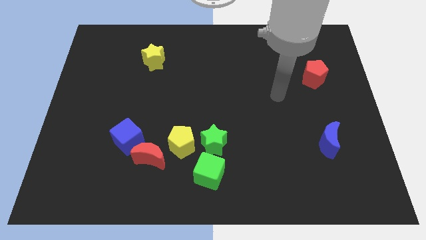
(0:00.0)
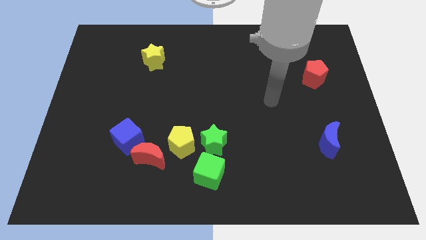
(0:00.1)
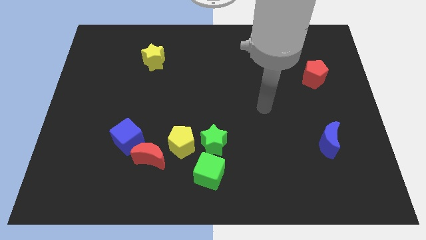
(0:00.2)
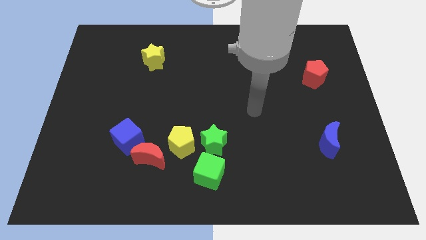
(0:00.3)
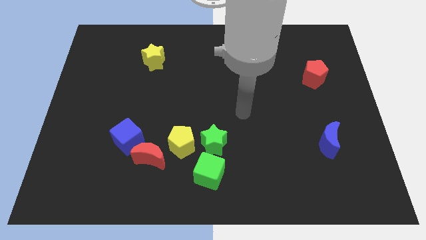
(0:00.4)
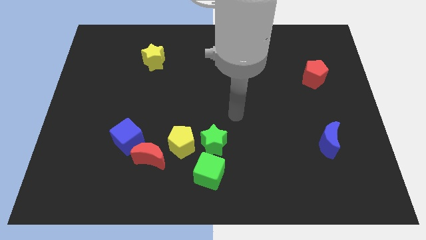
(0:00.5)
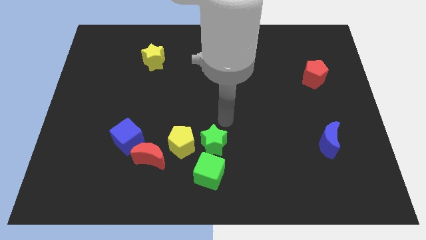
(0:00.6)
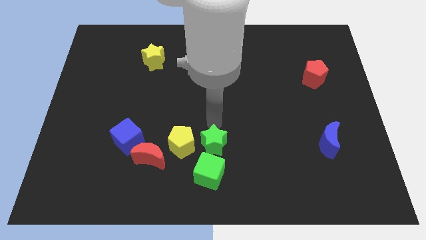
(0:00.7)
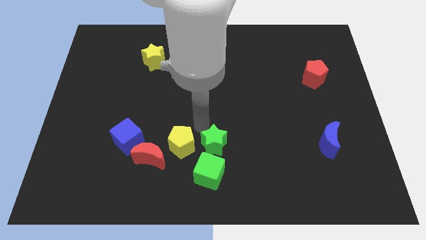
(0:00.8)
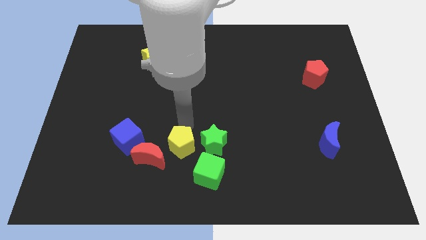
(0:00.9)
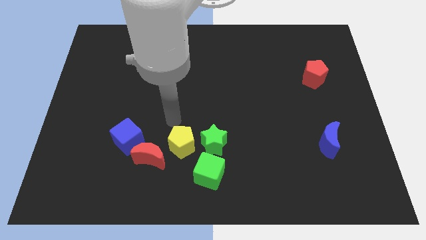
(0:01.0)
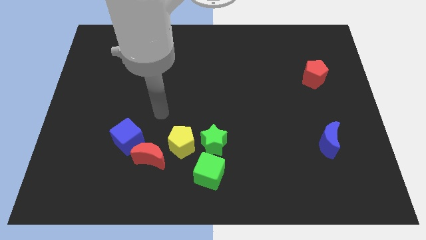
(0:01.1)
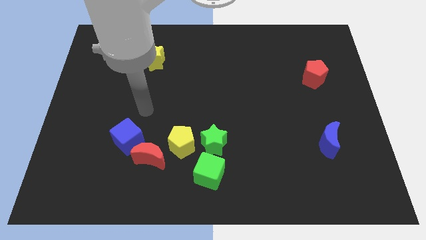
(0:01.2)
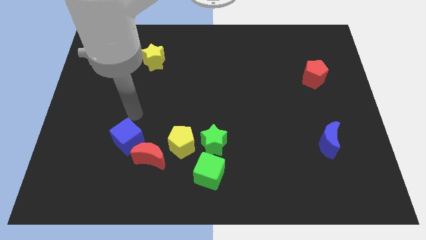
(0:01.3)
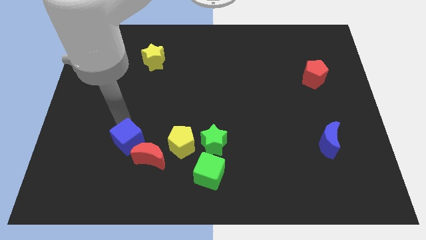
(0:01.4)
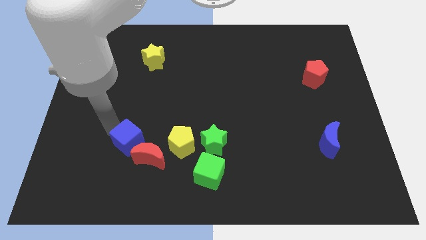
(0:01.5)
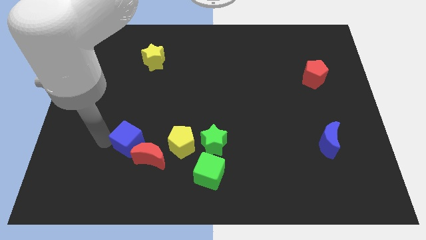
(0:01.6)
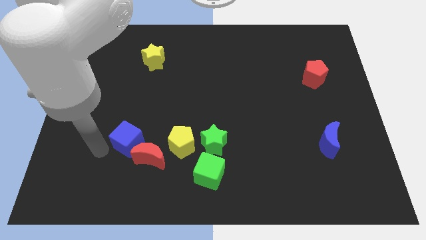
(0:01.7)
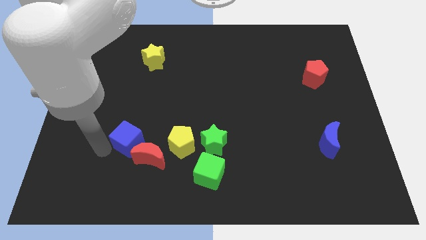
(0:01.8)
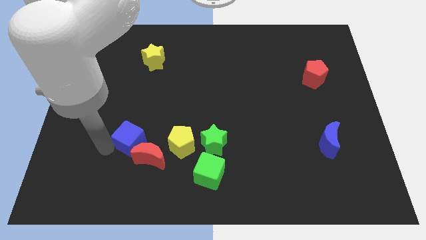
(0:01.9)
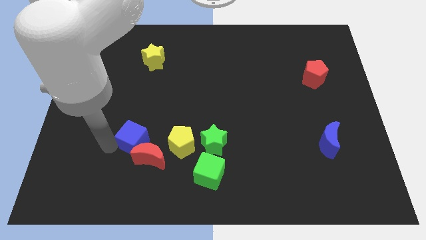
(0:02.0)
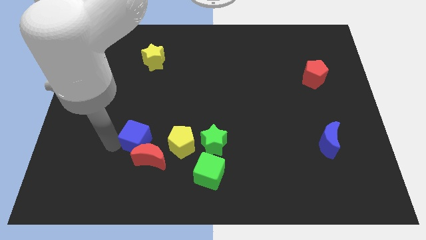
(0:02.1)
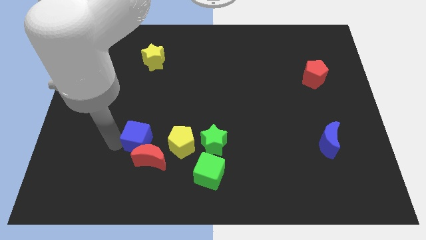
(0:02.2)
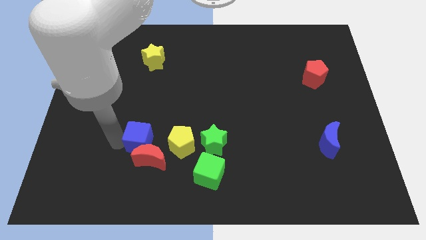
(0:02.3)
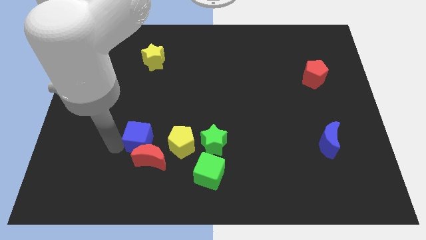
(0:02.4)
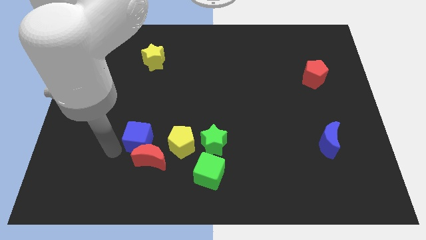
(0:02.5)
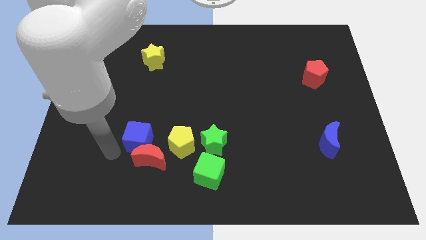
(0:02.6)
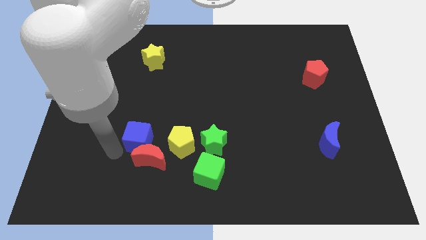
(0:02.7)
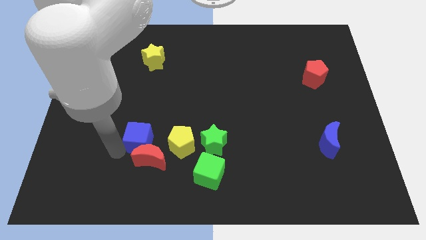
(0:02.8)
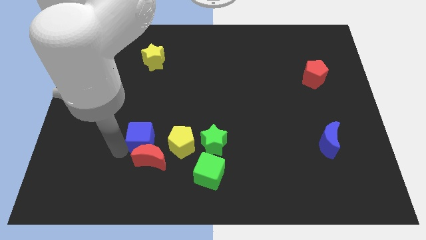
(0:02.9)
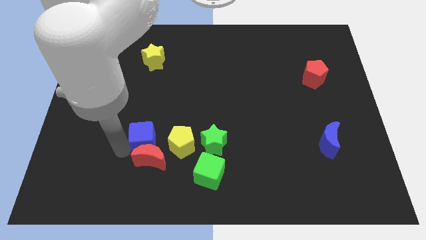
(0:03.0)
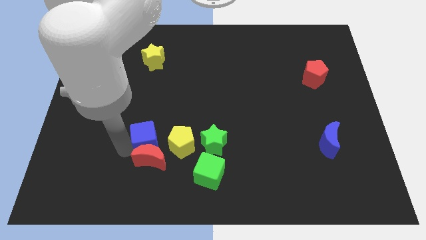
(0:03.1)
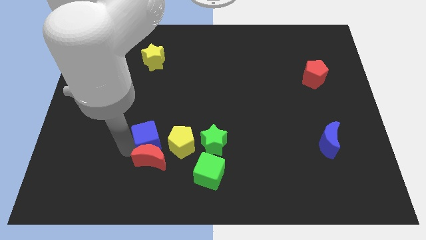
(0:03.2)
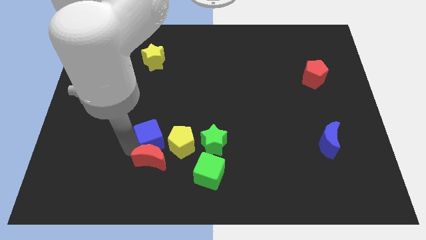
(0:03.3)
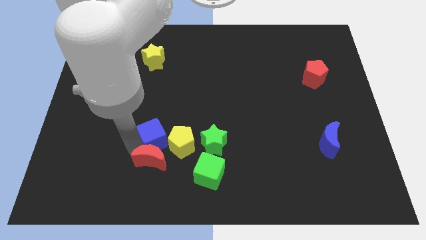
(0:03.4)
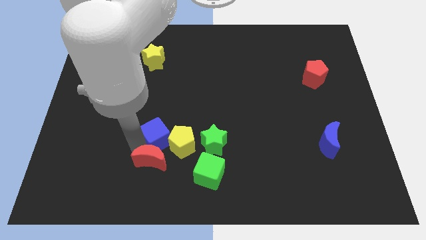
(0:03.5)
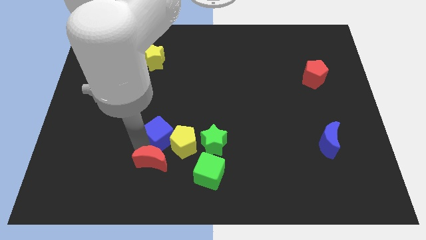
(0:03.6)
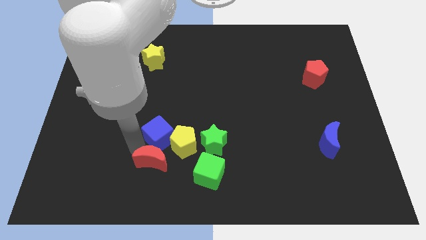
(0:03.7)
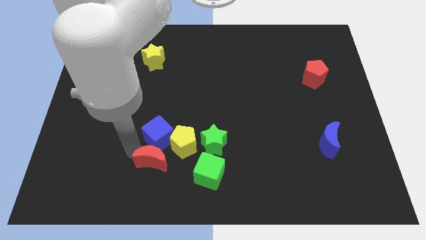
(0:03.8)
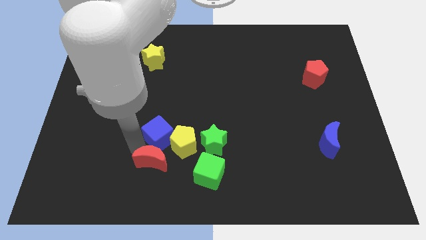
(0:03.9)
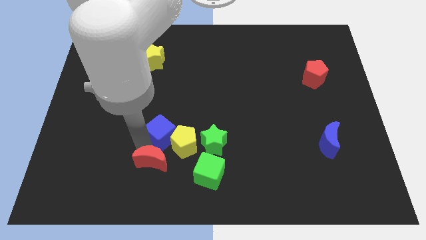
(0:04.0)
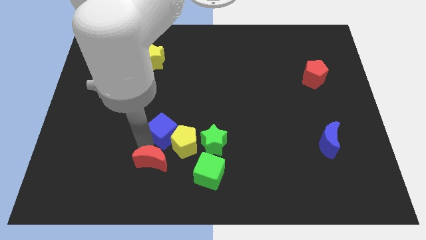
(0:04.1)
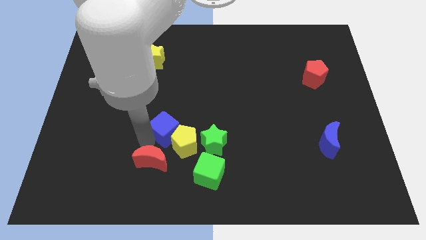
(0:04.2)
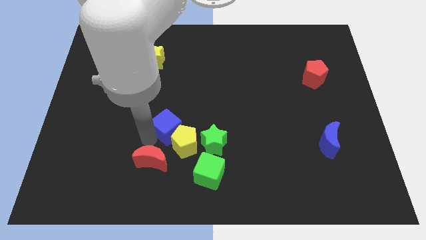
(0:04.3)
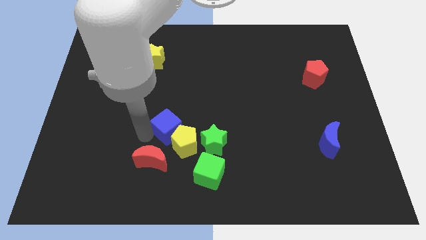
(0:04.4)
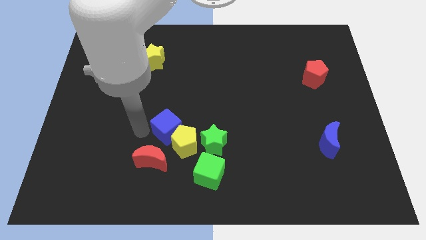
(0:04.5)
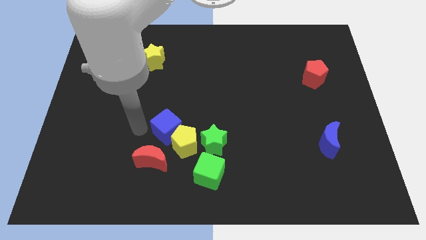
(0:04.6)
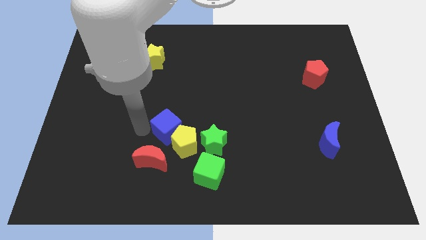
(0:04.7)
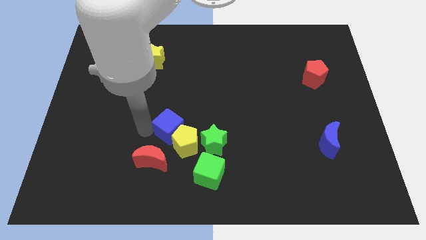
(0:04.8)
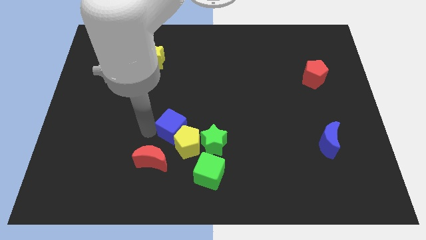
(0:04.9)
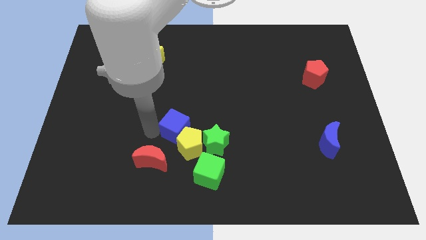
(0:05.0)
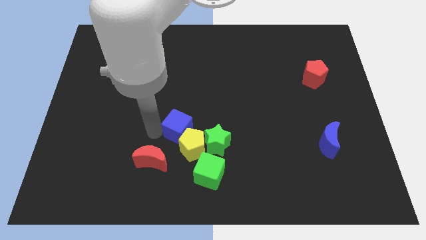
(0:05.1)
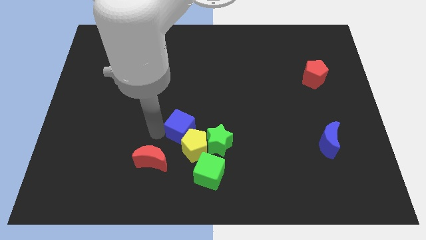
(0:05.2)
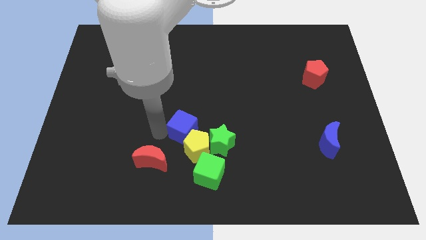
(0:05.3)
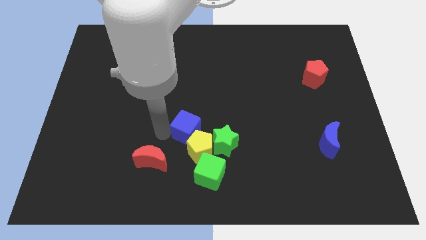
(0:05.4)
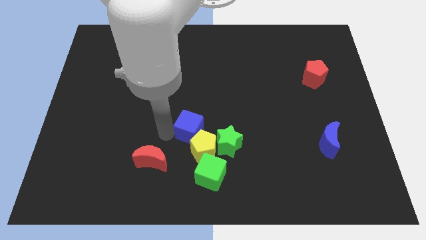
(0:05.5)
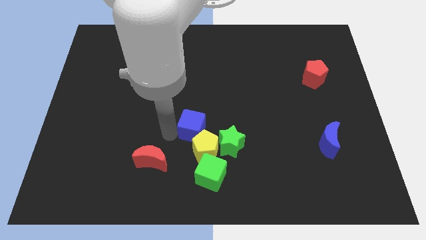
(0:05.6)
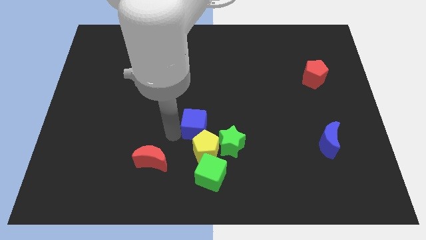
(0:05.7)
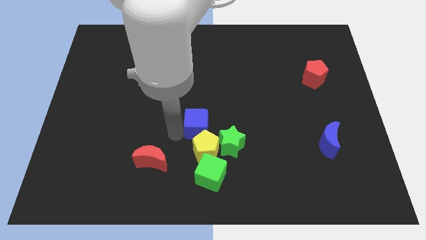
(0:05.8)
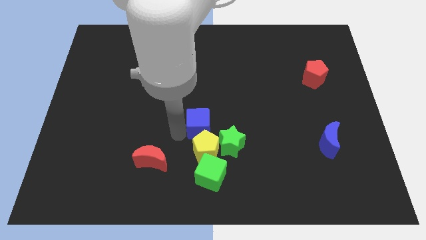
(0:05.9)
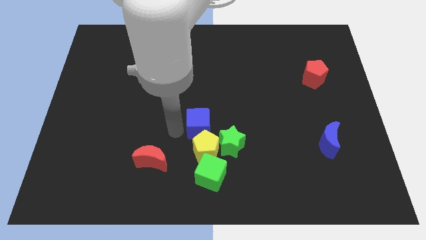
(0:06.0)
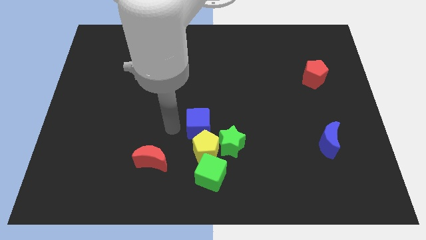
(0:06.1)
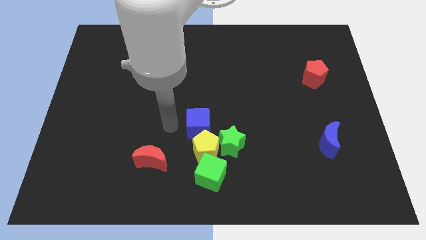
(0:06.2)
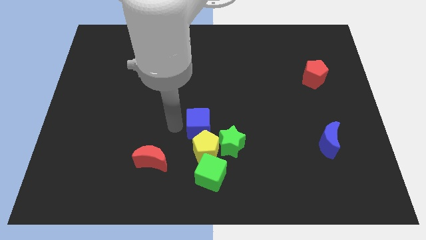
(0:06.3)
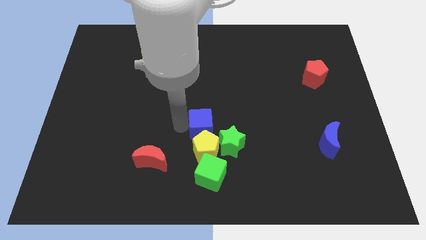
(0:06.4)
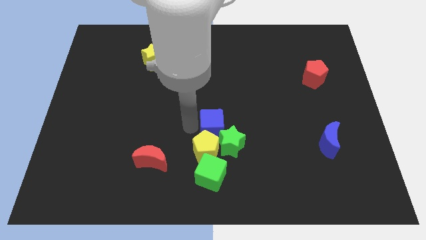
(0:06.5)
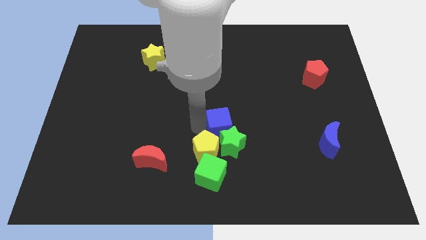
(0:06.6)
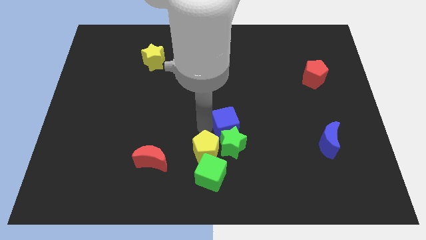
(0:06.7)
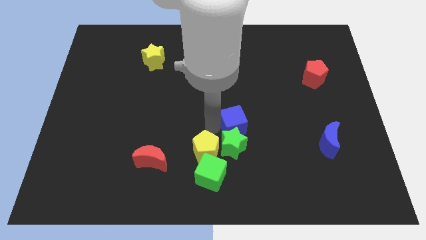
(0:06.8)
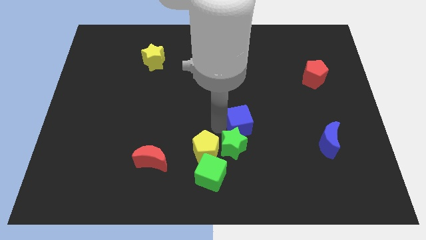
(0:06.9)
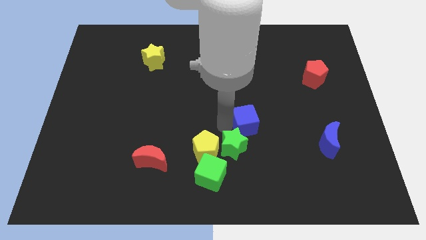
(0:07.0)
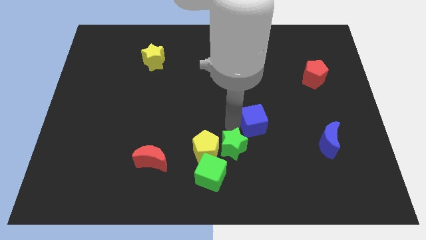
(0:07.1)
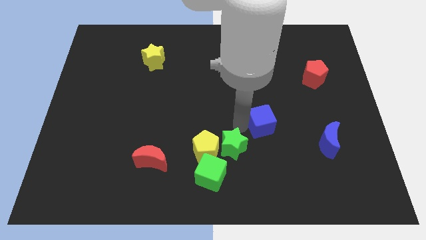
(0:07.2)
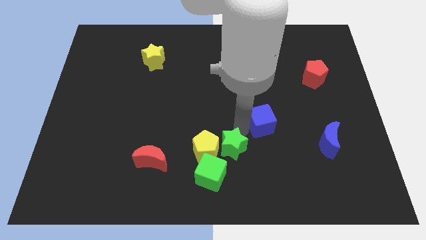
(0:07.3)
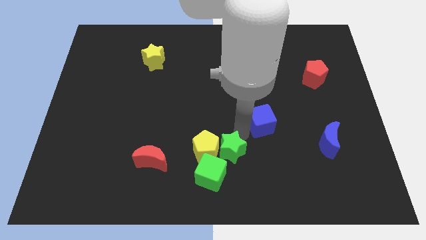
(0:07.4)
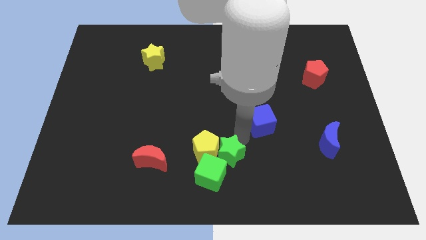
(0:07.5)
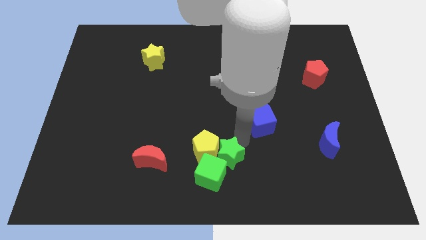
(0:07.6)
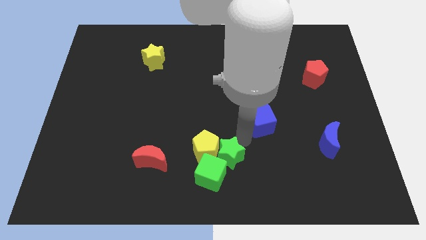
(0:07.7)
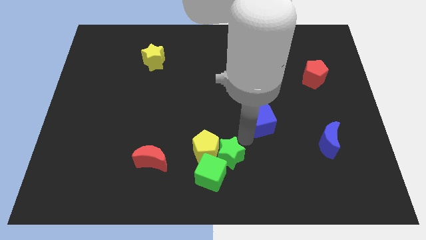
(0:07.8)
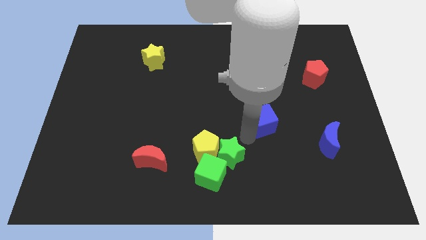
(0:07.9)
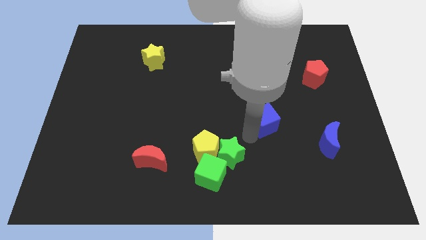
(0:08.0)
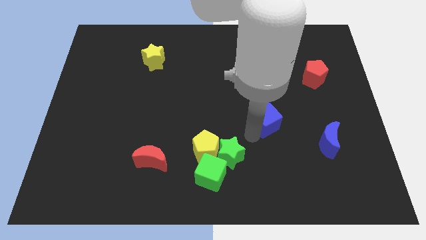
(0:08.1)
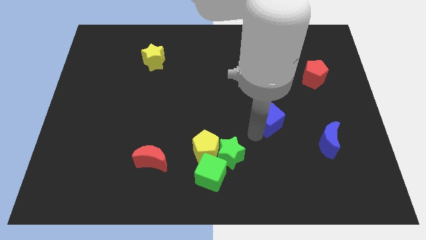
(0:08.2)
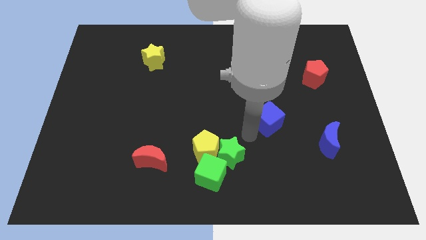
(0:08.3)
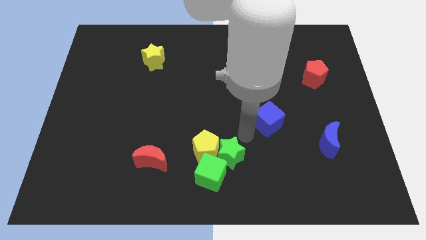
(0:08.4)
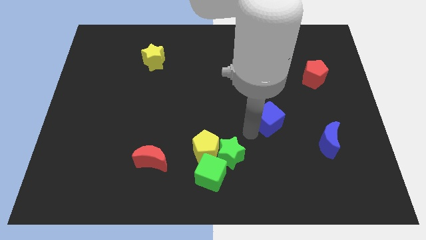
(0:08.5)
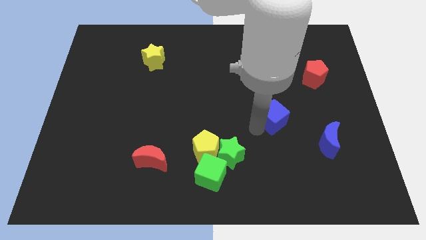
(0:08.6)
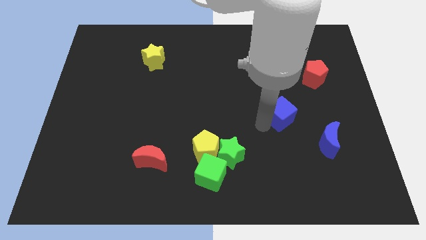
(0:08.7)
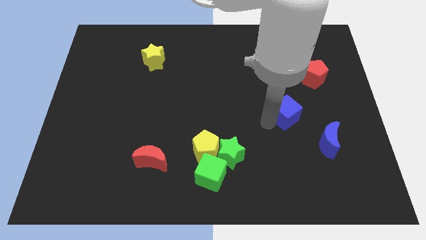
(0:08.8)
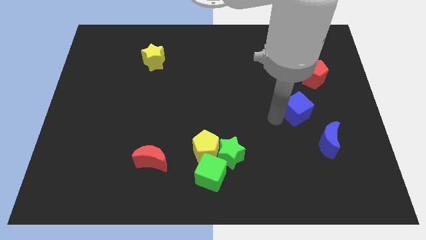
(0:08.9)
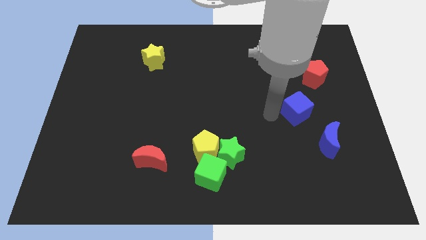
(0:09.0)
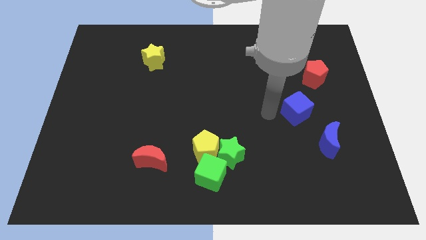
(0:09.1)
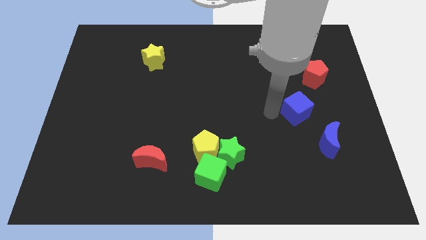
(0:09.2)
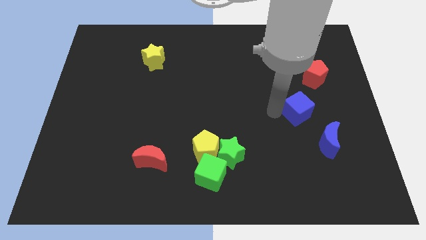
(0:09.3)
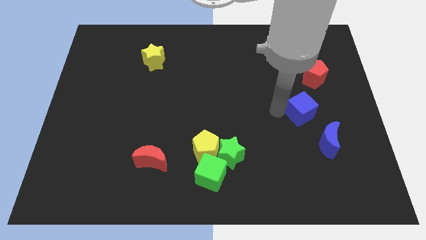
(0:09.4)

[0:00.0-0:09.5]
slide the blue cube to the bottom of the red pentagon
